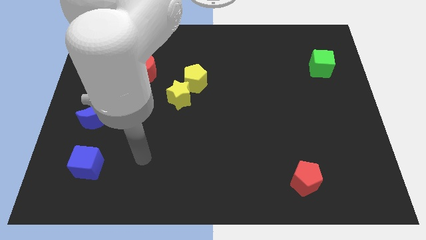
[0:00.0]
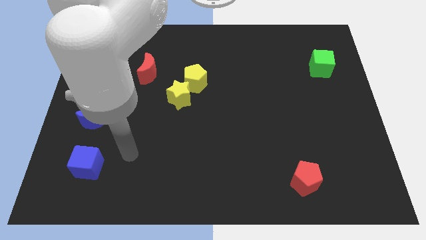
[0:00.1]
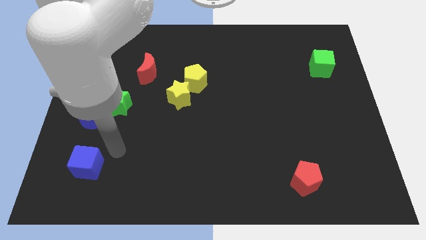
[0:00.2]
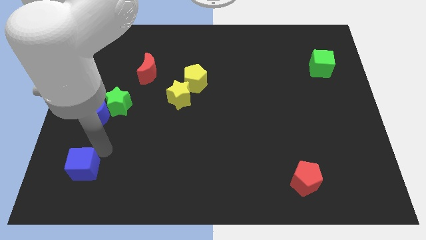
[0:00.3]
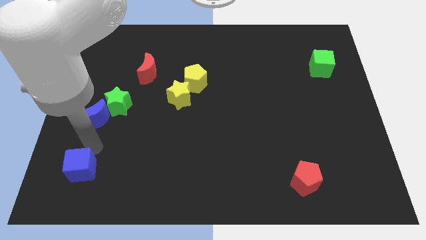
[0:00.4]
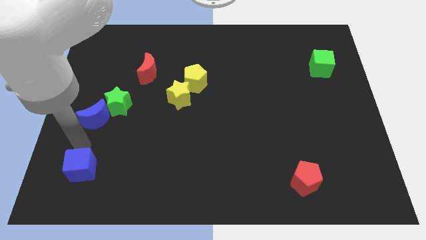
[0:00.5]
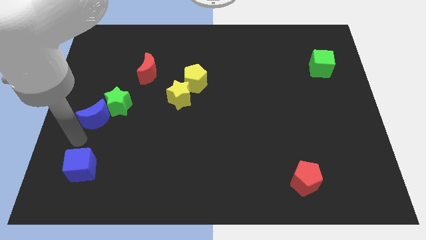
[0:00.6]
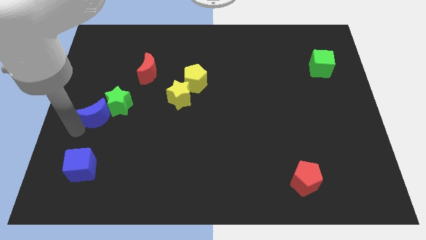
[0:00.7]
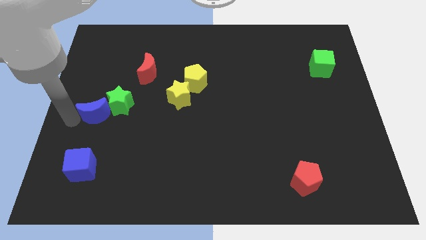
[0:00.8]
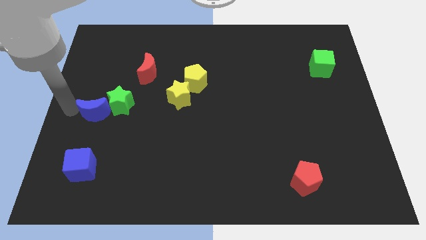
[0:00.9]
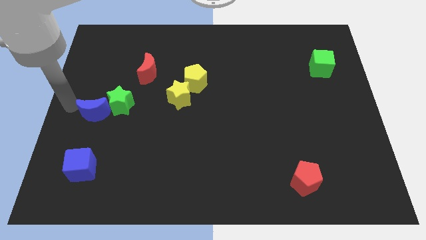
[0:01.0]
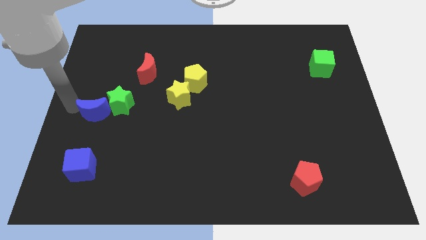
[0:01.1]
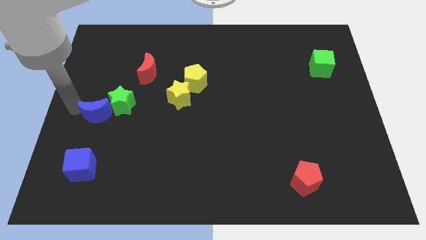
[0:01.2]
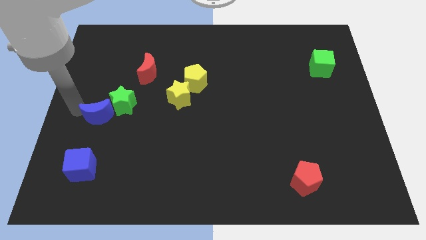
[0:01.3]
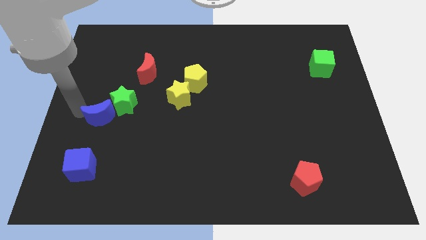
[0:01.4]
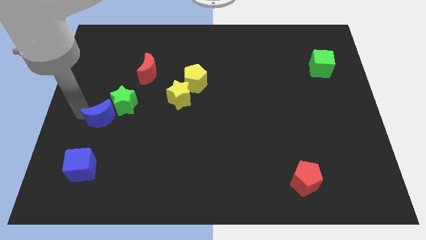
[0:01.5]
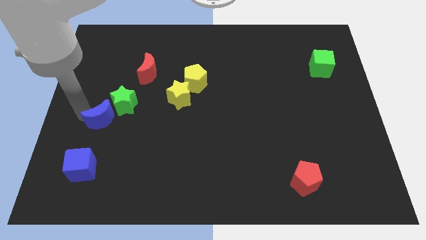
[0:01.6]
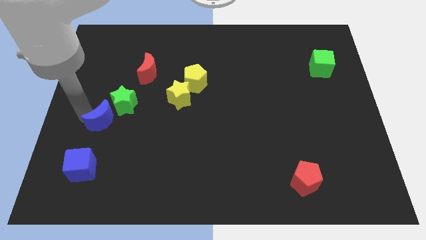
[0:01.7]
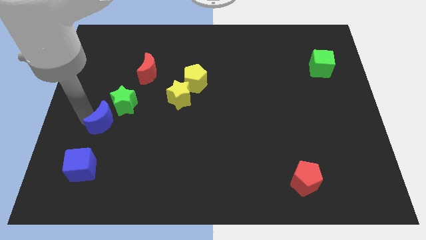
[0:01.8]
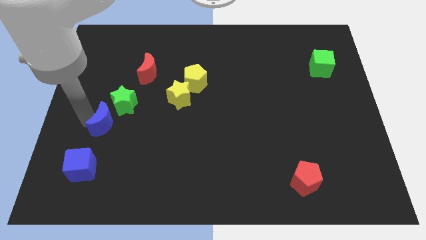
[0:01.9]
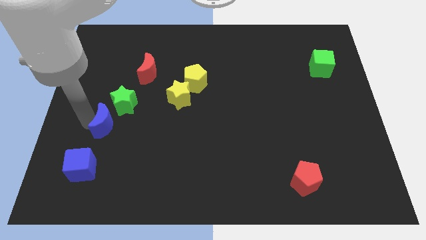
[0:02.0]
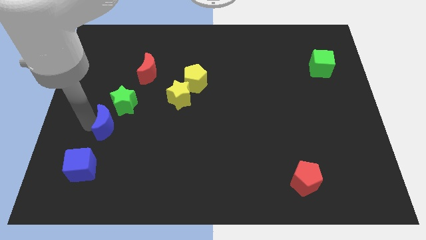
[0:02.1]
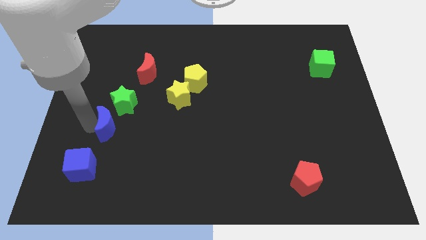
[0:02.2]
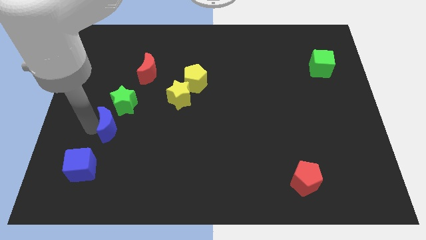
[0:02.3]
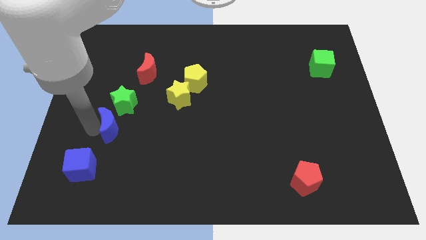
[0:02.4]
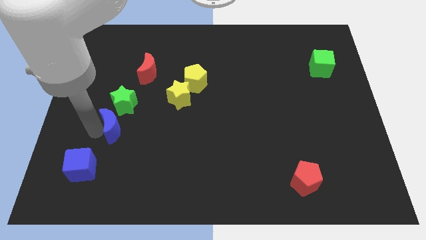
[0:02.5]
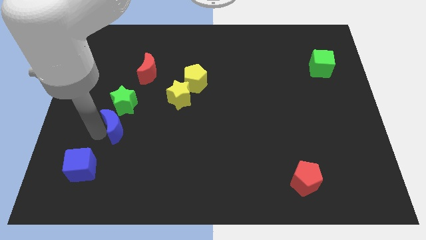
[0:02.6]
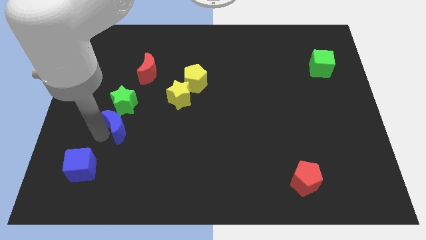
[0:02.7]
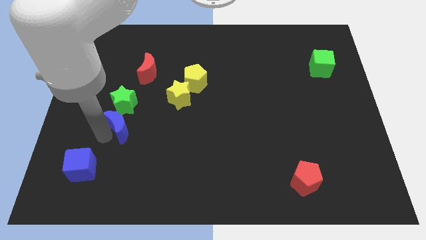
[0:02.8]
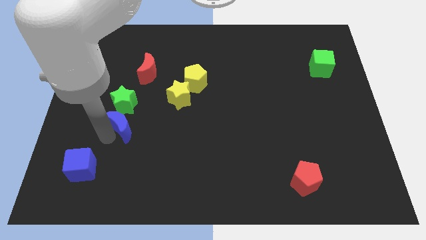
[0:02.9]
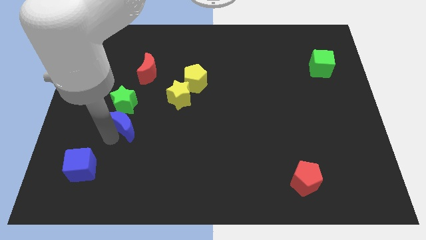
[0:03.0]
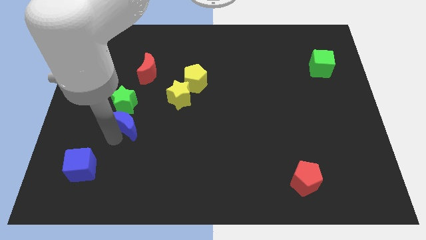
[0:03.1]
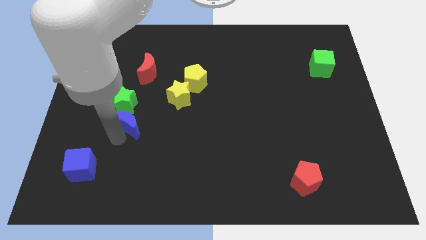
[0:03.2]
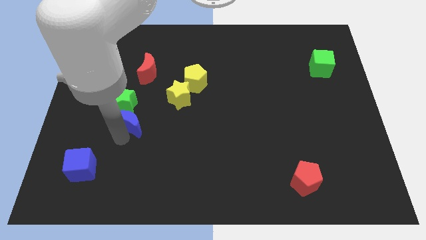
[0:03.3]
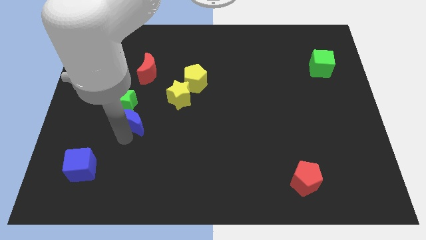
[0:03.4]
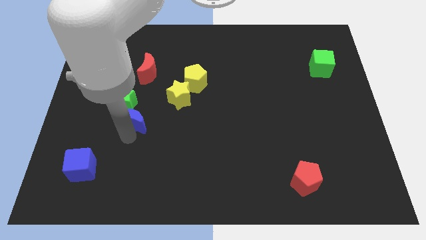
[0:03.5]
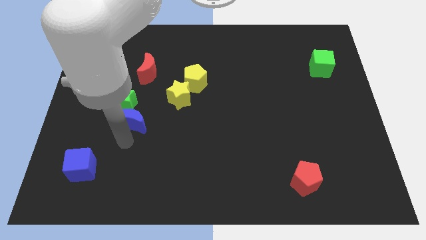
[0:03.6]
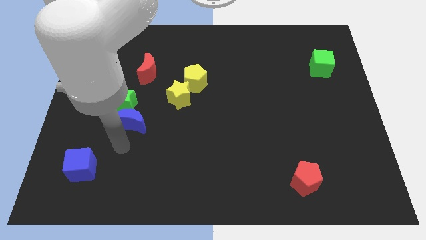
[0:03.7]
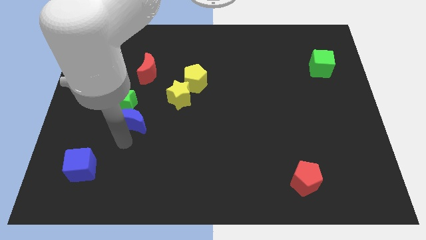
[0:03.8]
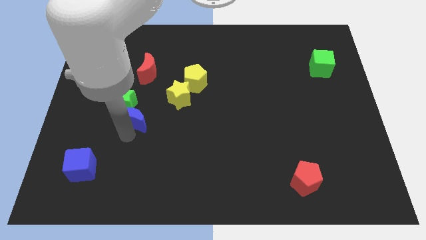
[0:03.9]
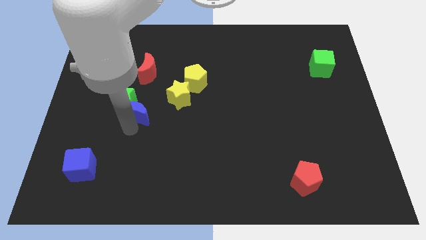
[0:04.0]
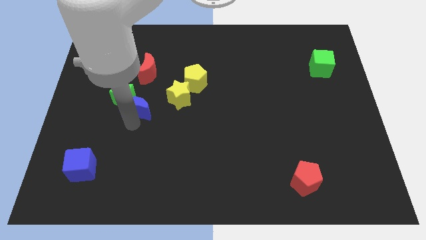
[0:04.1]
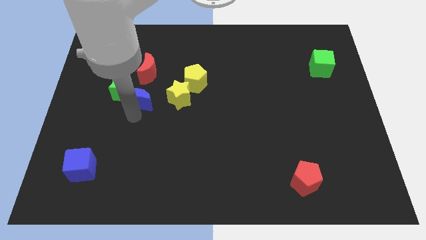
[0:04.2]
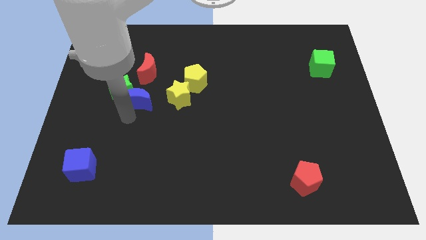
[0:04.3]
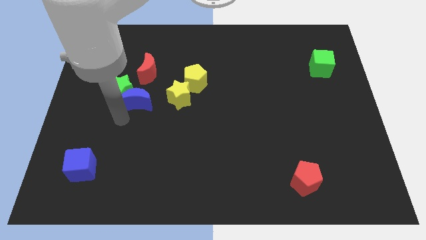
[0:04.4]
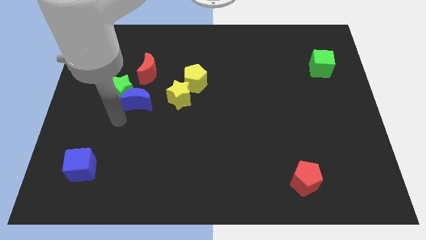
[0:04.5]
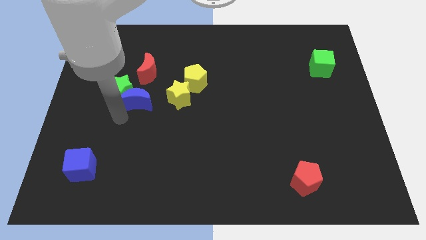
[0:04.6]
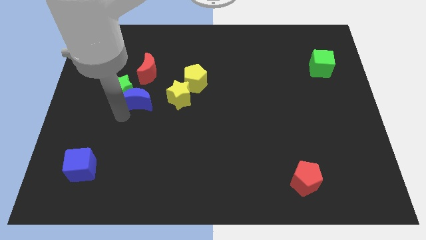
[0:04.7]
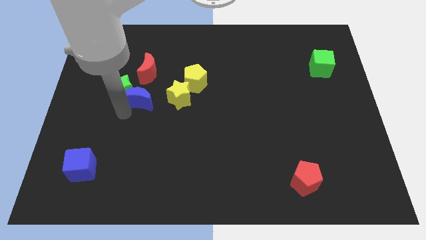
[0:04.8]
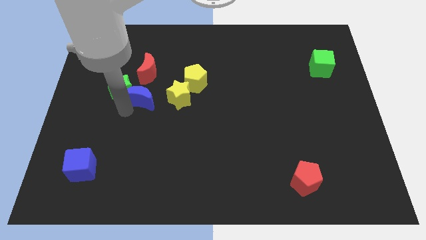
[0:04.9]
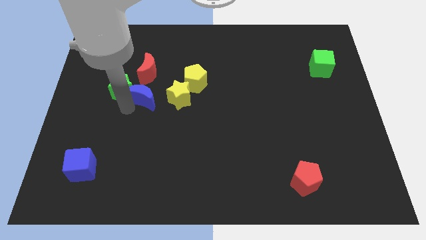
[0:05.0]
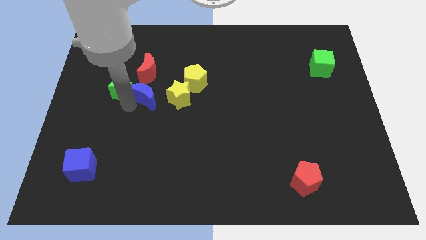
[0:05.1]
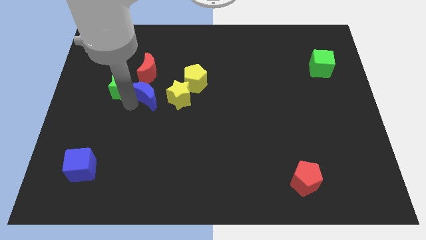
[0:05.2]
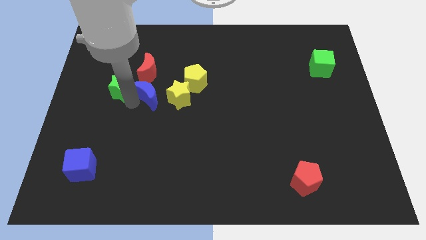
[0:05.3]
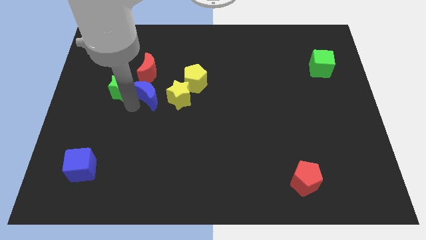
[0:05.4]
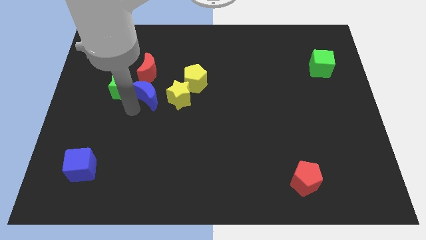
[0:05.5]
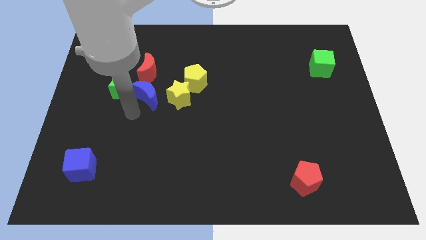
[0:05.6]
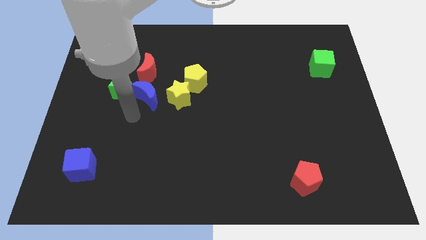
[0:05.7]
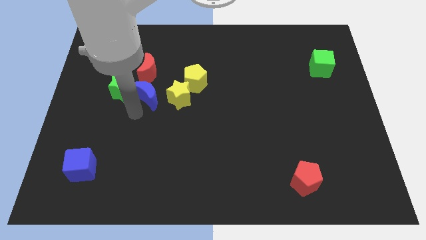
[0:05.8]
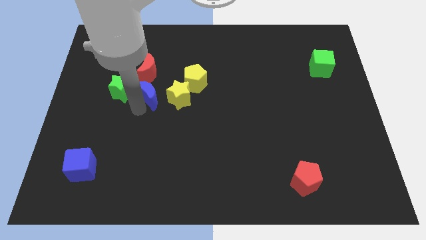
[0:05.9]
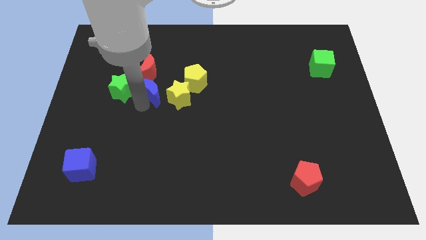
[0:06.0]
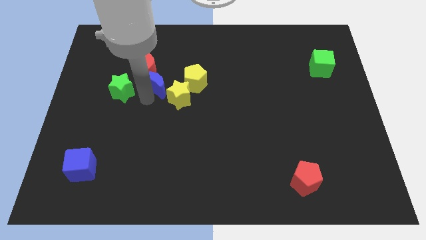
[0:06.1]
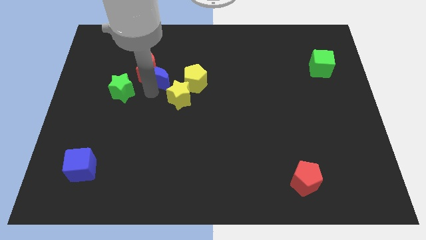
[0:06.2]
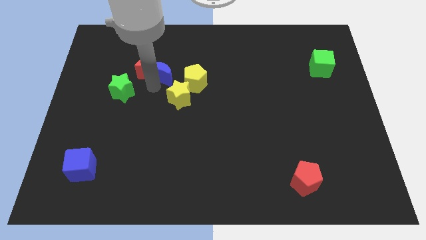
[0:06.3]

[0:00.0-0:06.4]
push the blue moon to the top left of the yellow pentagon

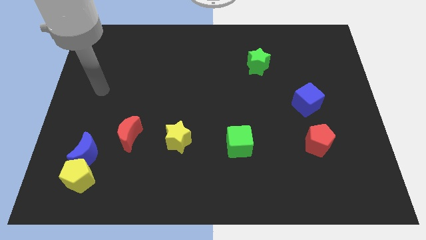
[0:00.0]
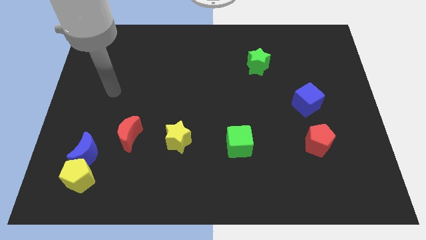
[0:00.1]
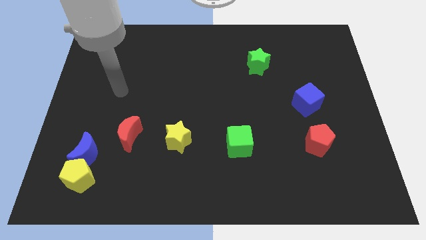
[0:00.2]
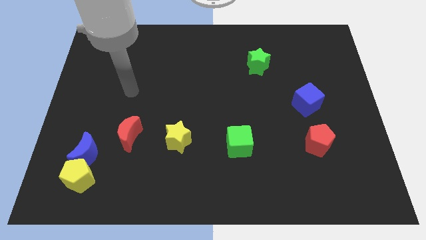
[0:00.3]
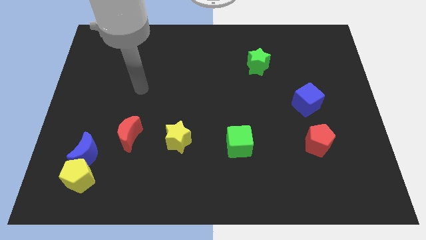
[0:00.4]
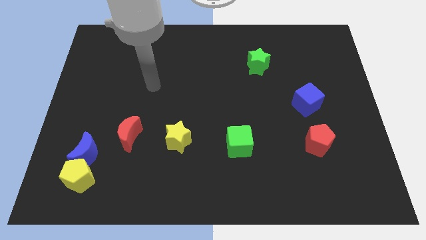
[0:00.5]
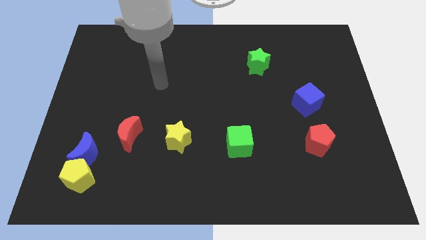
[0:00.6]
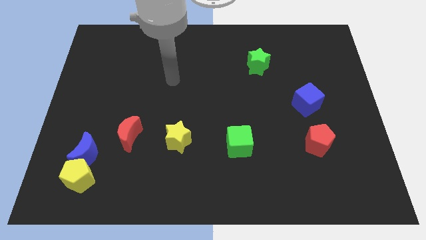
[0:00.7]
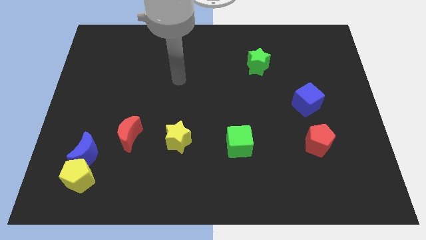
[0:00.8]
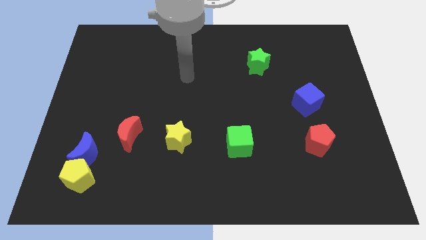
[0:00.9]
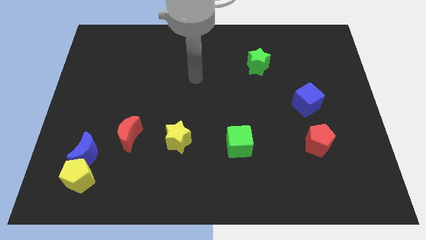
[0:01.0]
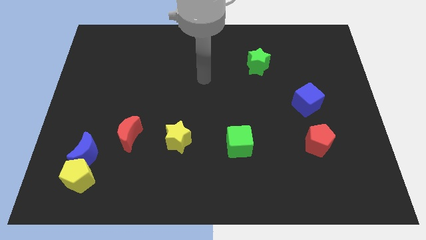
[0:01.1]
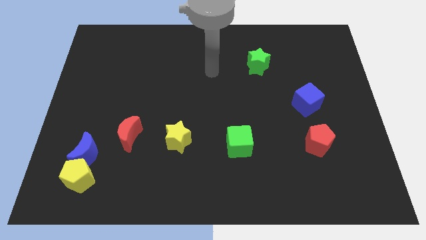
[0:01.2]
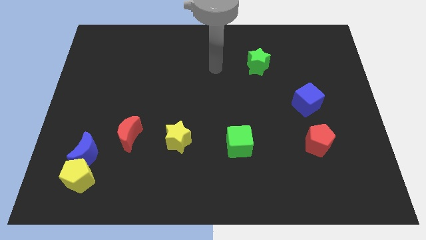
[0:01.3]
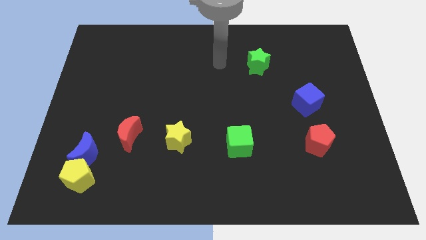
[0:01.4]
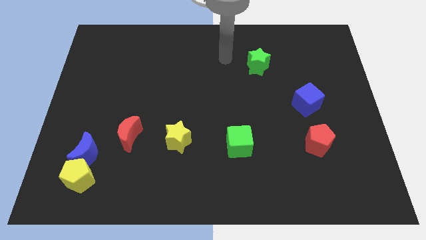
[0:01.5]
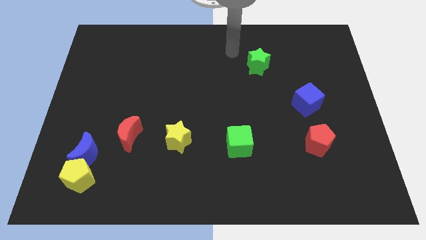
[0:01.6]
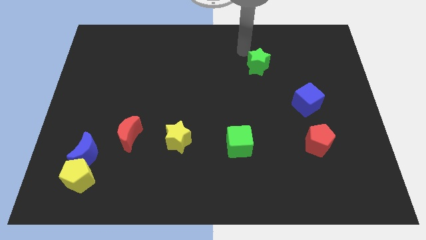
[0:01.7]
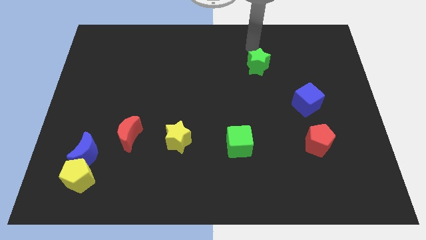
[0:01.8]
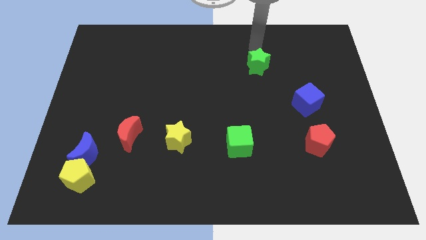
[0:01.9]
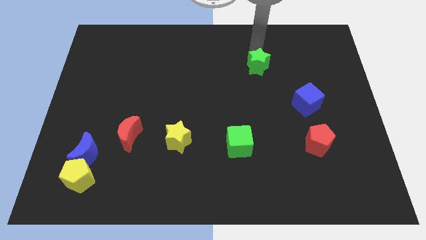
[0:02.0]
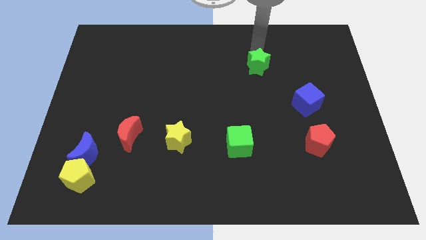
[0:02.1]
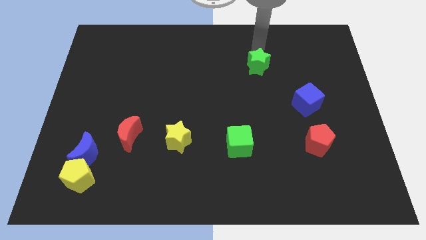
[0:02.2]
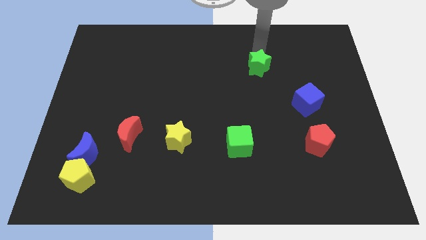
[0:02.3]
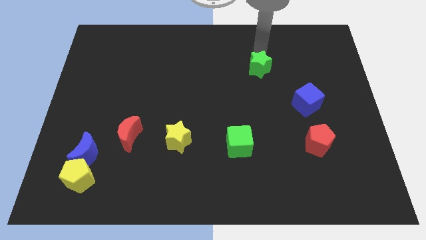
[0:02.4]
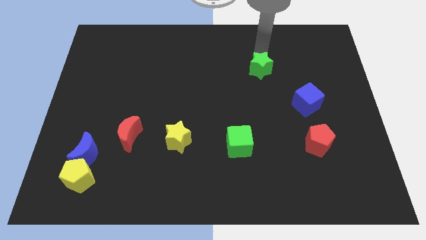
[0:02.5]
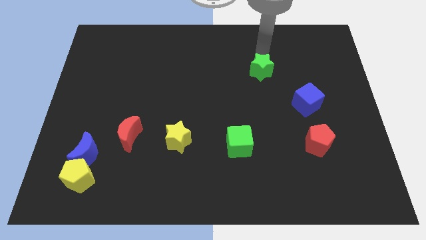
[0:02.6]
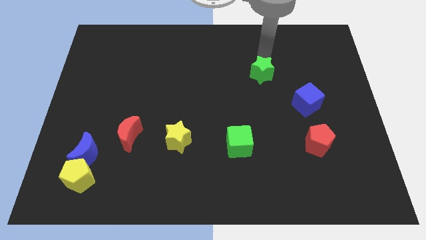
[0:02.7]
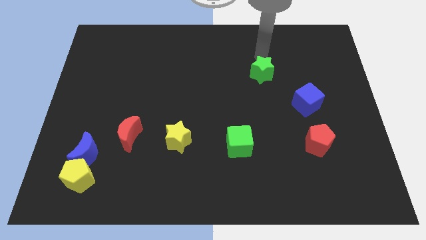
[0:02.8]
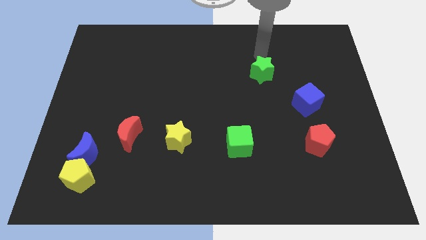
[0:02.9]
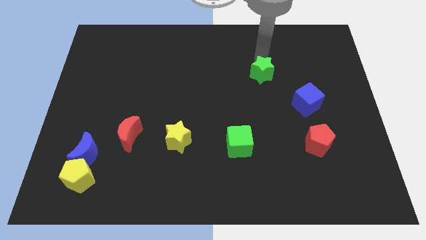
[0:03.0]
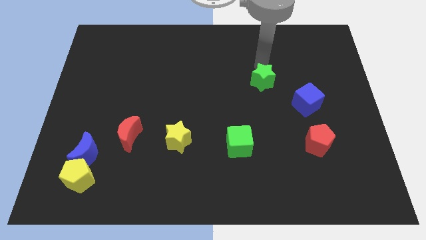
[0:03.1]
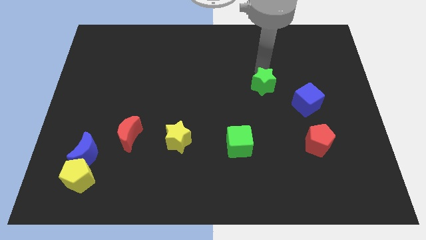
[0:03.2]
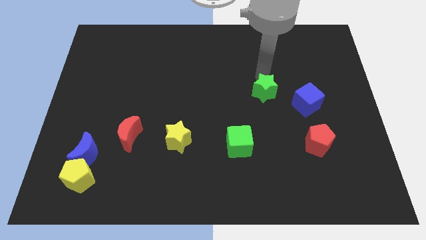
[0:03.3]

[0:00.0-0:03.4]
push the green star to the left of the blue cube
